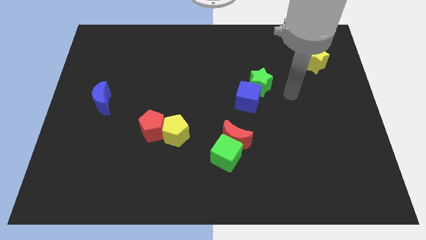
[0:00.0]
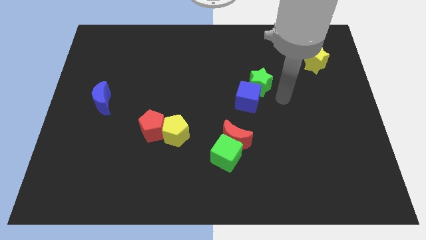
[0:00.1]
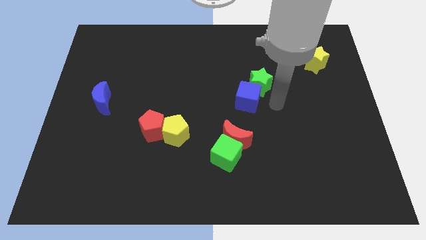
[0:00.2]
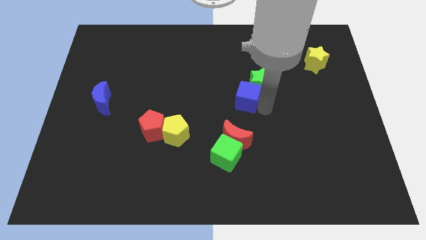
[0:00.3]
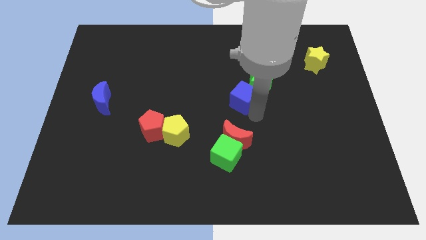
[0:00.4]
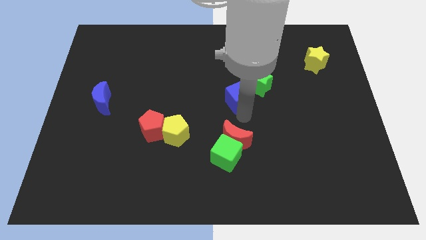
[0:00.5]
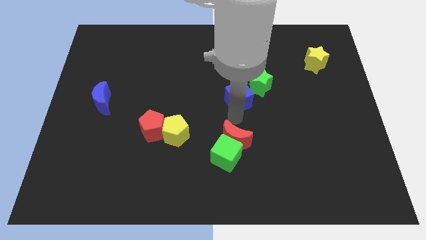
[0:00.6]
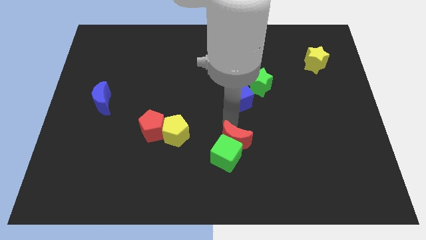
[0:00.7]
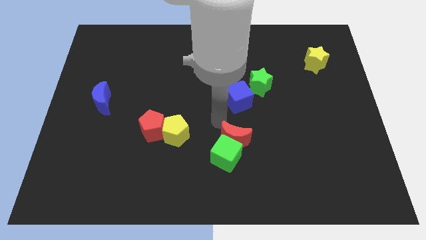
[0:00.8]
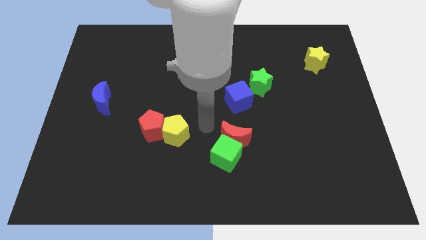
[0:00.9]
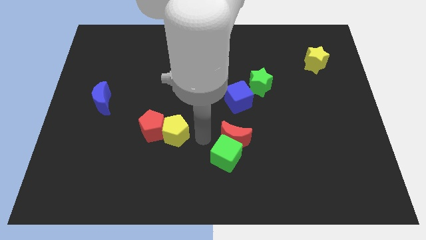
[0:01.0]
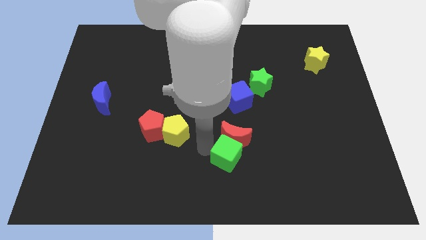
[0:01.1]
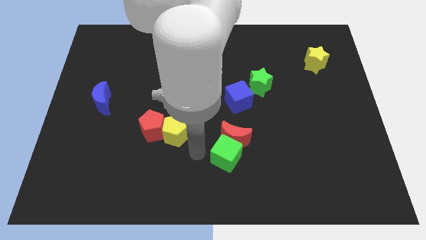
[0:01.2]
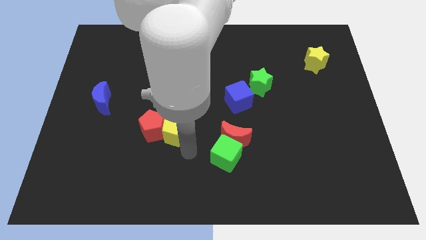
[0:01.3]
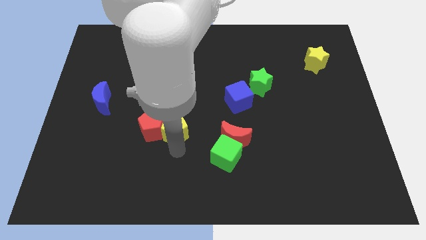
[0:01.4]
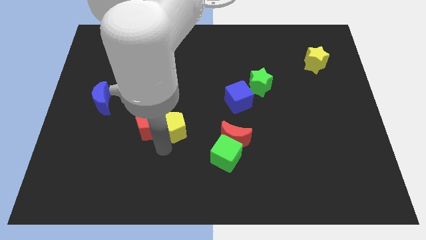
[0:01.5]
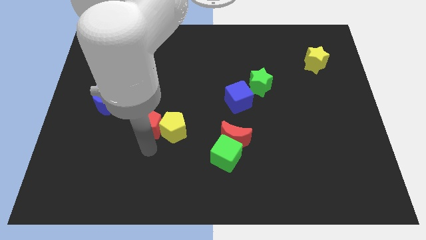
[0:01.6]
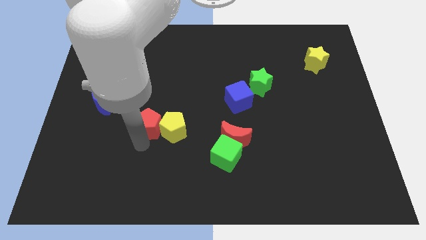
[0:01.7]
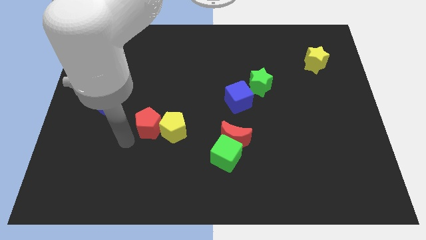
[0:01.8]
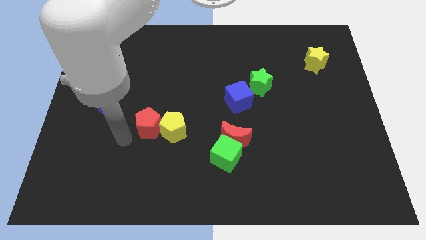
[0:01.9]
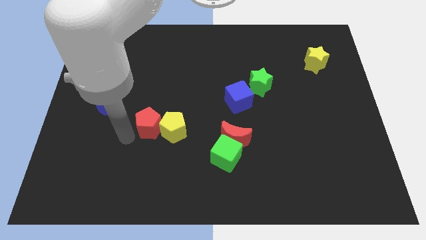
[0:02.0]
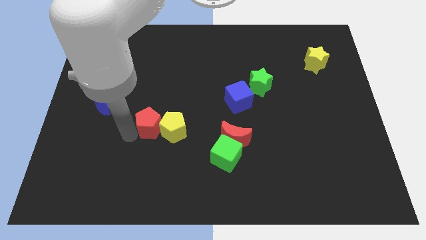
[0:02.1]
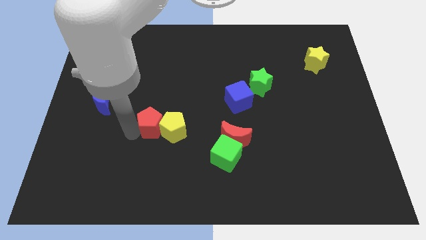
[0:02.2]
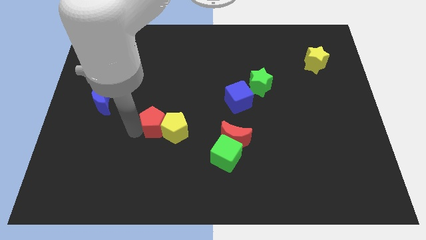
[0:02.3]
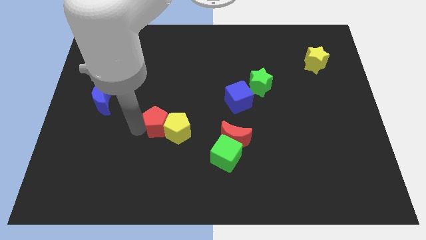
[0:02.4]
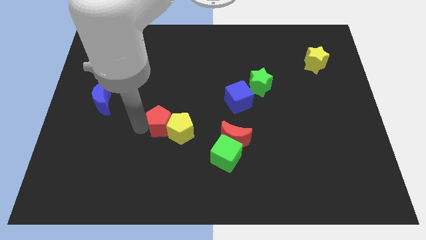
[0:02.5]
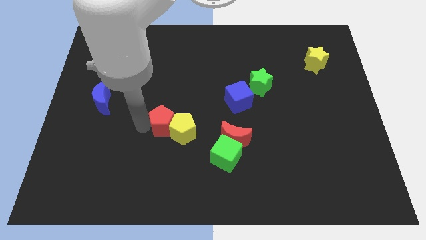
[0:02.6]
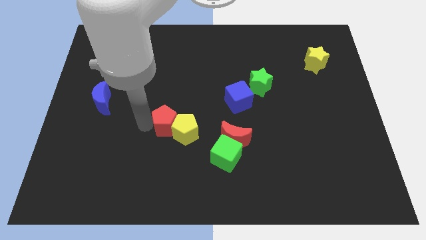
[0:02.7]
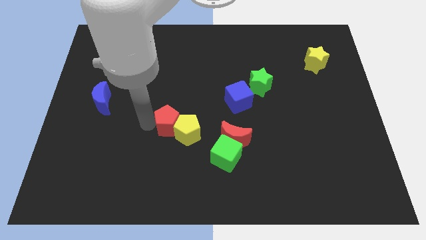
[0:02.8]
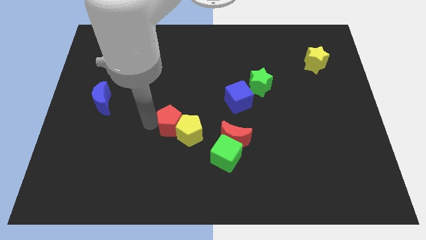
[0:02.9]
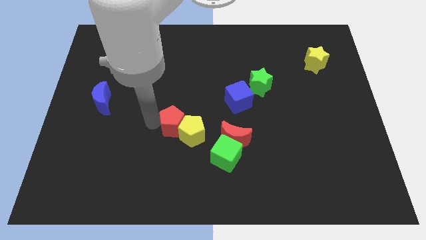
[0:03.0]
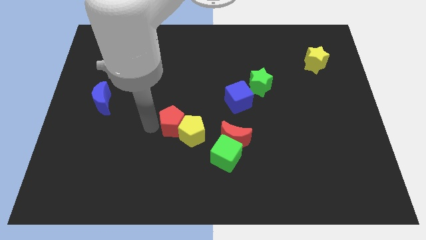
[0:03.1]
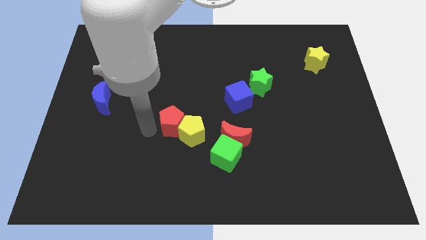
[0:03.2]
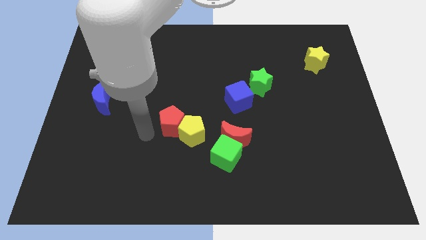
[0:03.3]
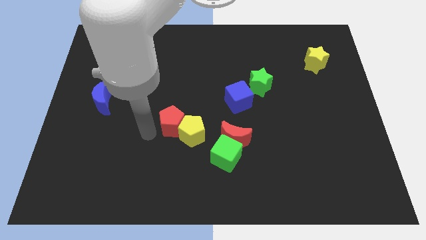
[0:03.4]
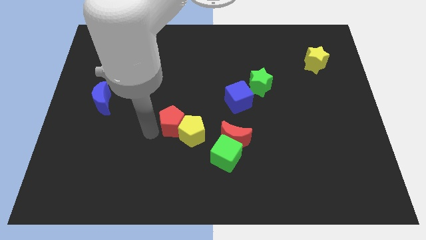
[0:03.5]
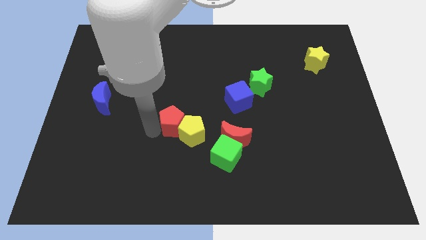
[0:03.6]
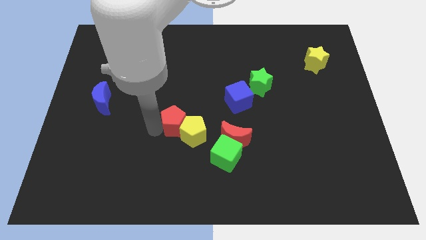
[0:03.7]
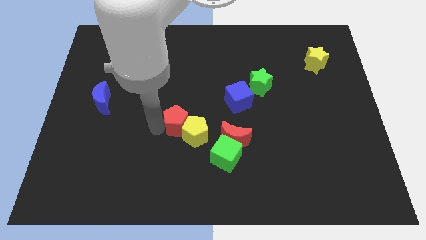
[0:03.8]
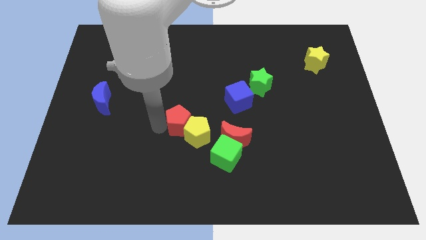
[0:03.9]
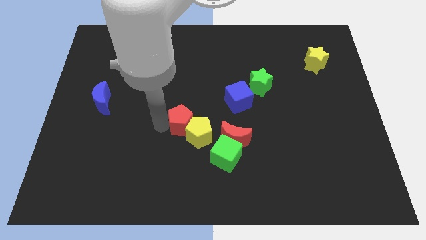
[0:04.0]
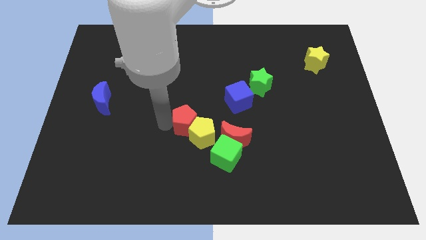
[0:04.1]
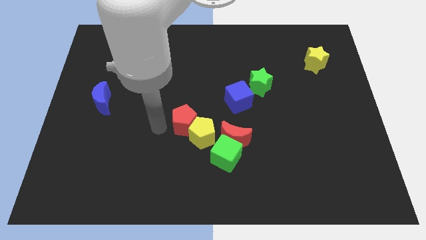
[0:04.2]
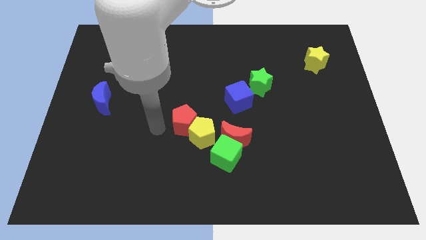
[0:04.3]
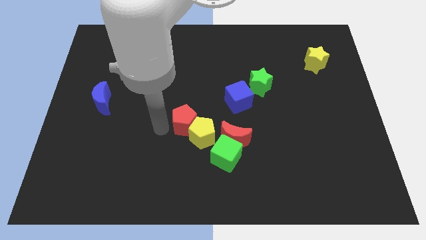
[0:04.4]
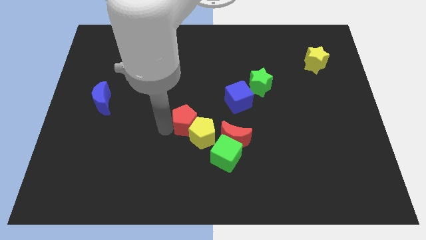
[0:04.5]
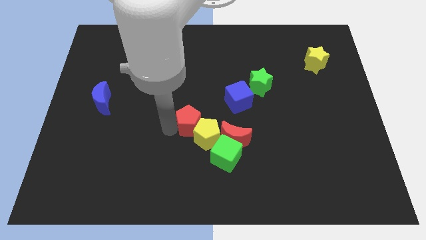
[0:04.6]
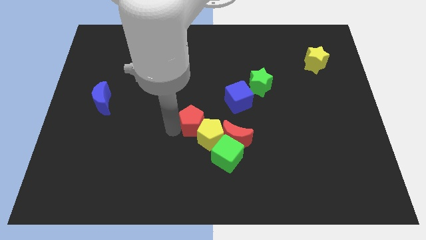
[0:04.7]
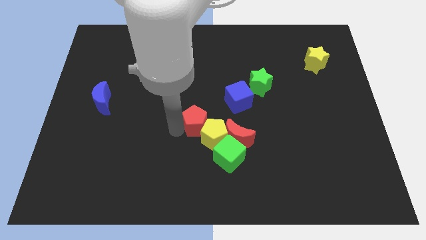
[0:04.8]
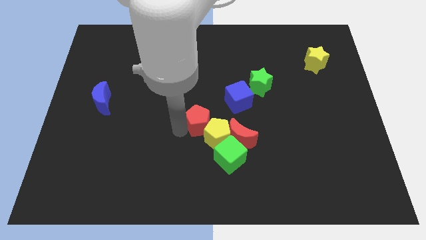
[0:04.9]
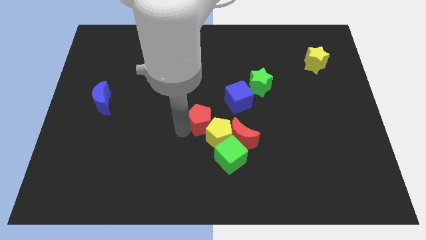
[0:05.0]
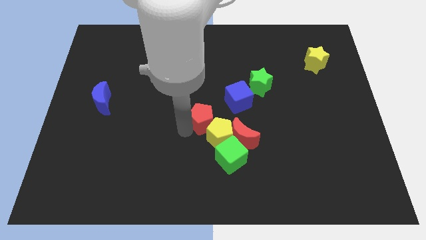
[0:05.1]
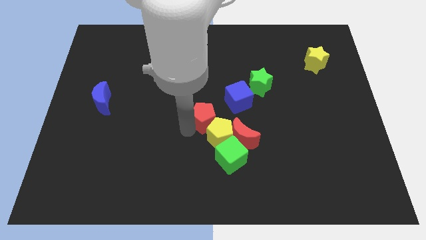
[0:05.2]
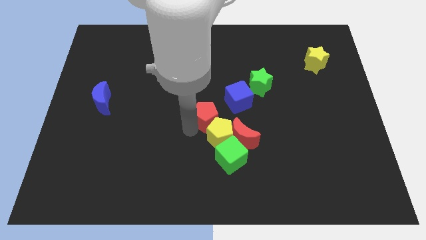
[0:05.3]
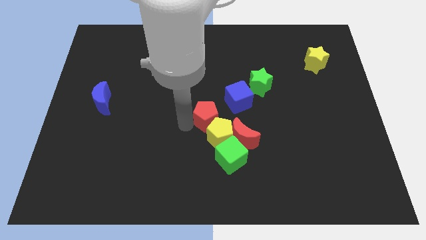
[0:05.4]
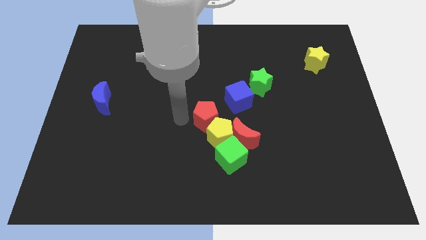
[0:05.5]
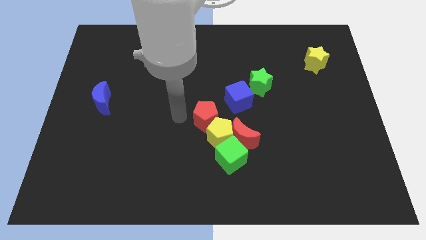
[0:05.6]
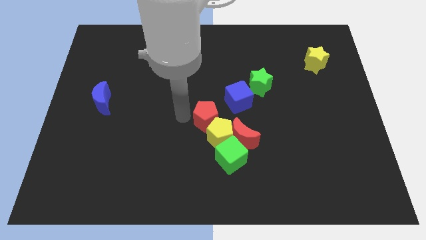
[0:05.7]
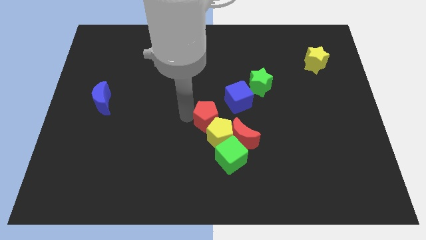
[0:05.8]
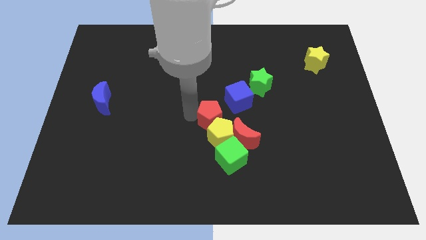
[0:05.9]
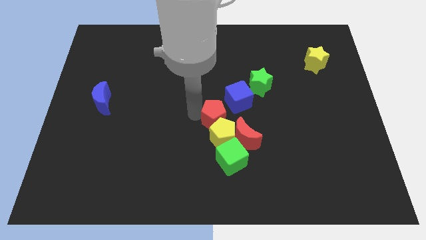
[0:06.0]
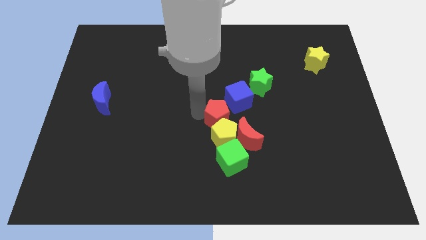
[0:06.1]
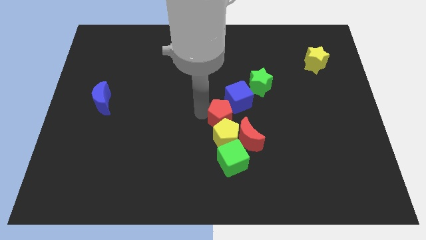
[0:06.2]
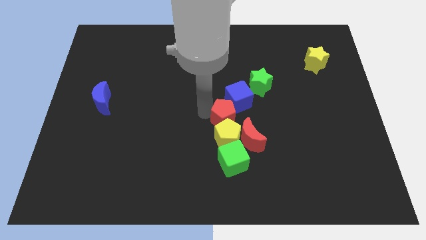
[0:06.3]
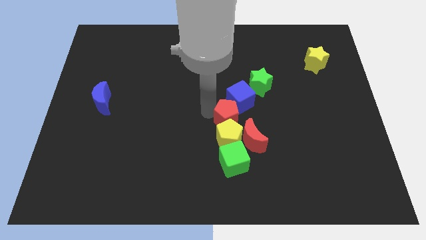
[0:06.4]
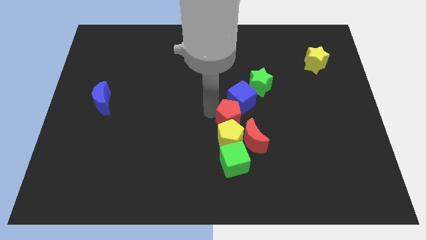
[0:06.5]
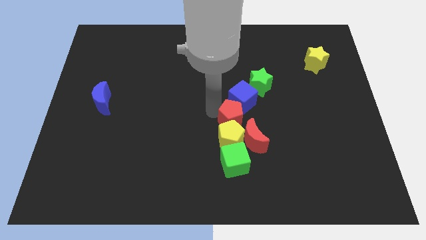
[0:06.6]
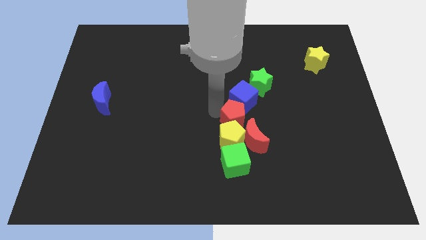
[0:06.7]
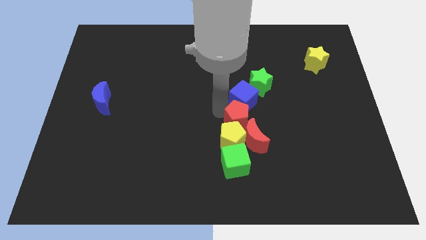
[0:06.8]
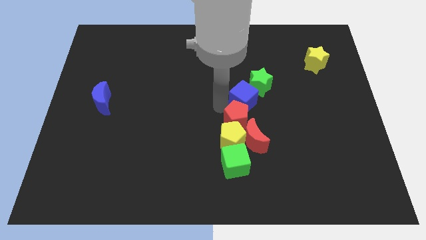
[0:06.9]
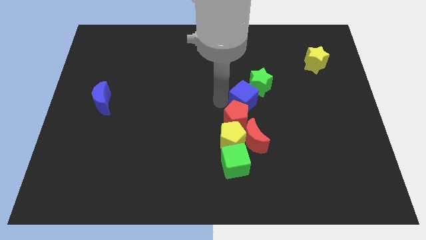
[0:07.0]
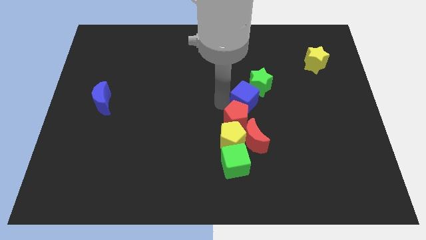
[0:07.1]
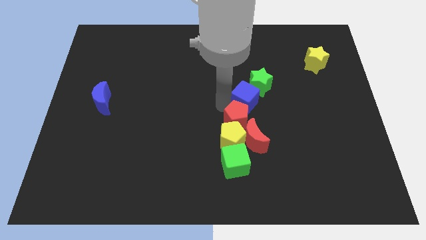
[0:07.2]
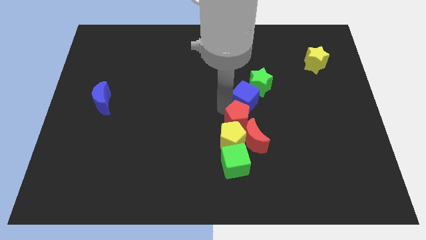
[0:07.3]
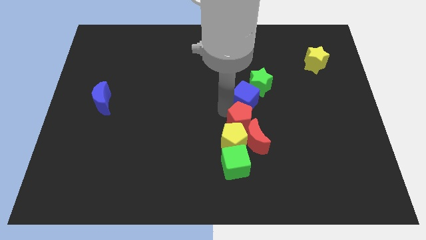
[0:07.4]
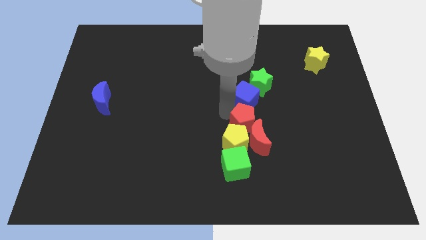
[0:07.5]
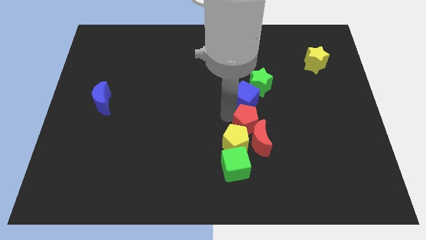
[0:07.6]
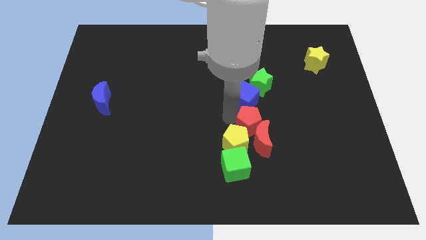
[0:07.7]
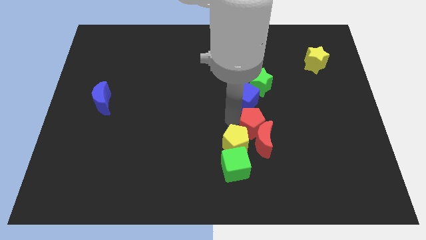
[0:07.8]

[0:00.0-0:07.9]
move the red pentagon to the top right of the green cube

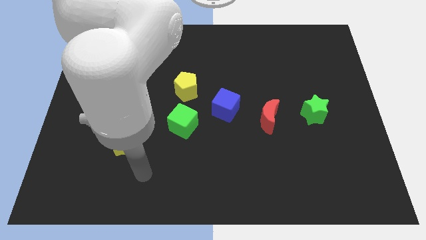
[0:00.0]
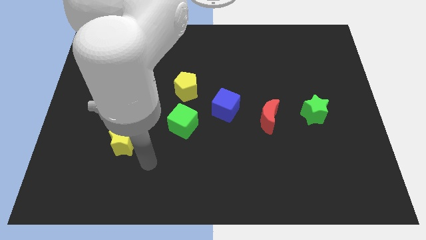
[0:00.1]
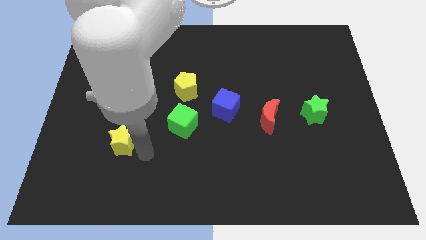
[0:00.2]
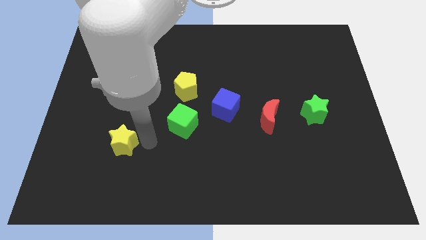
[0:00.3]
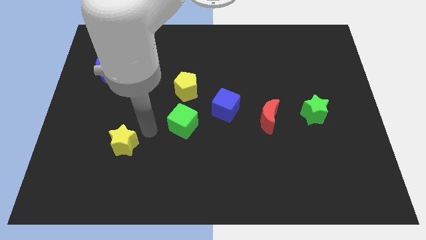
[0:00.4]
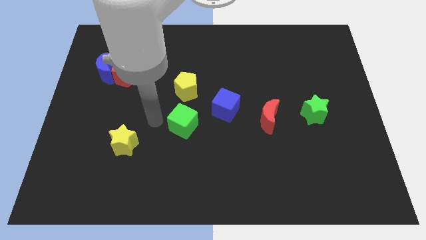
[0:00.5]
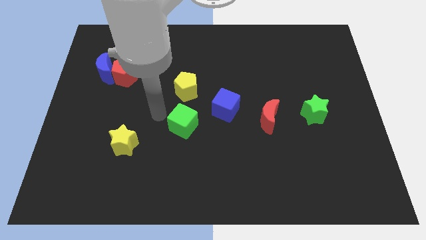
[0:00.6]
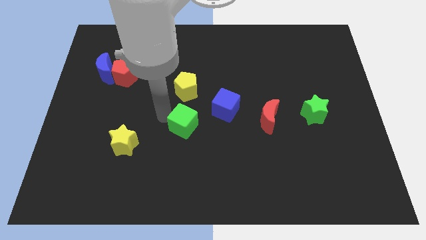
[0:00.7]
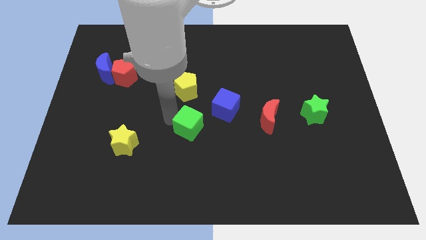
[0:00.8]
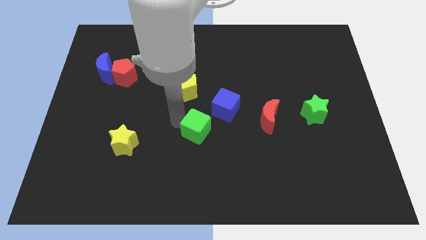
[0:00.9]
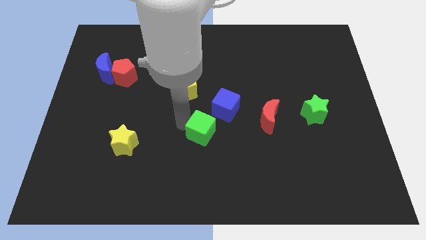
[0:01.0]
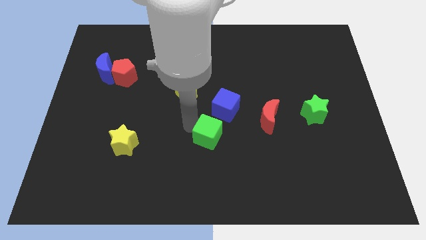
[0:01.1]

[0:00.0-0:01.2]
push the green cube to the bottom side of the blue cube
